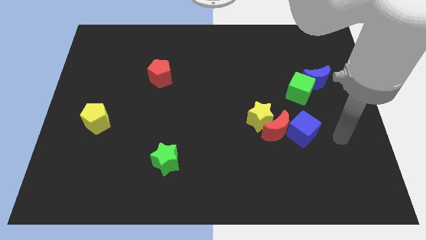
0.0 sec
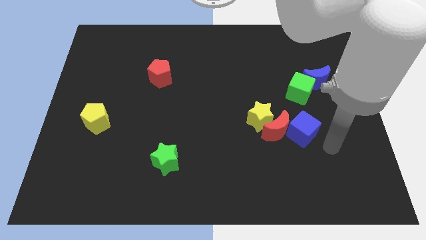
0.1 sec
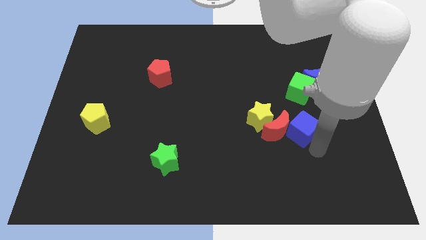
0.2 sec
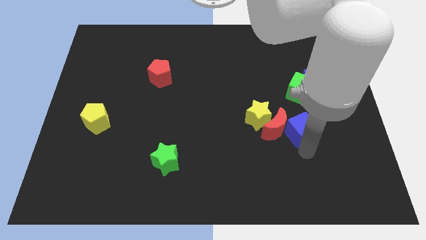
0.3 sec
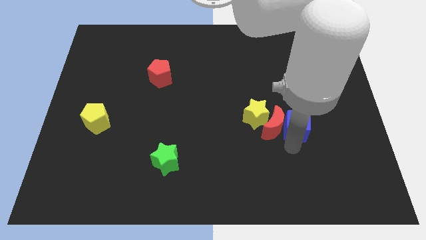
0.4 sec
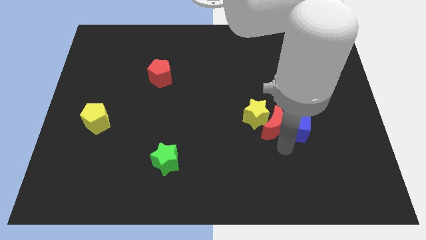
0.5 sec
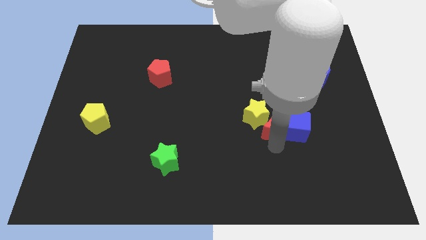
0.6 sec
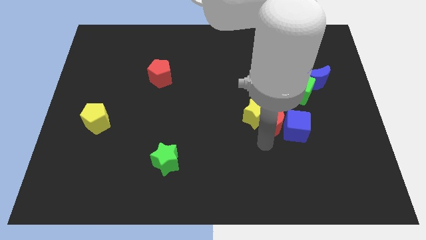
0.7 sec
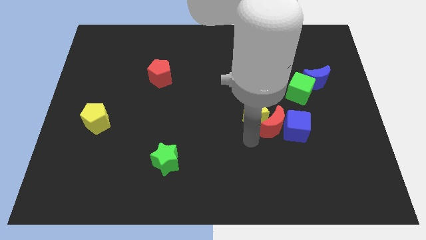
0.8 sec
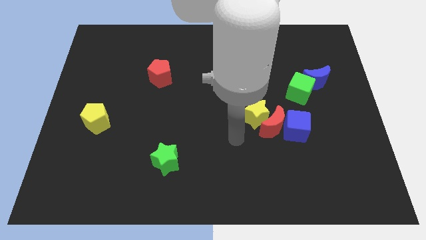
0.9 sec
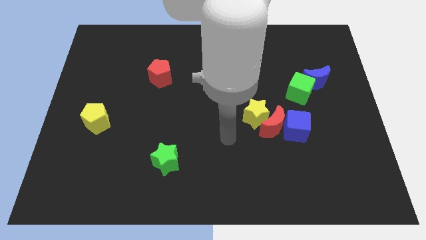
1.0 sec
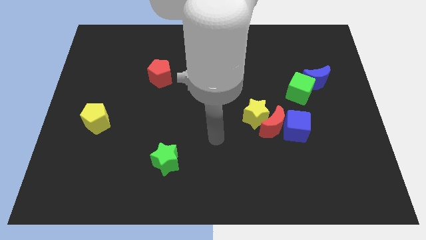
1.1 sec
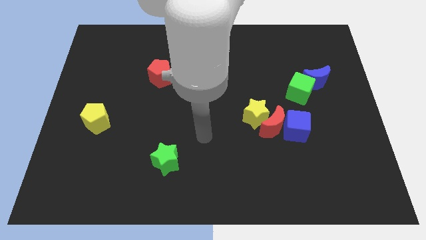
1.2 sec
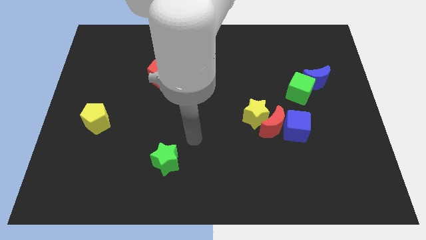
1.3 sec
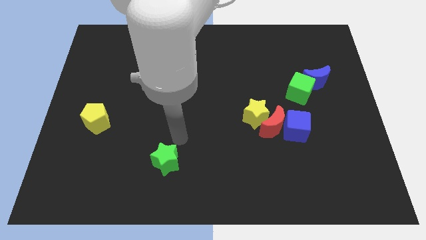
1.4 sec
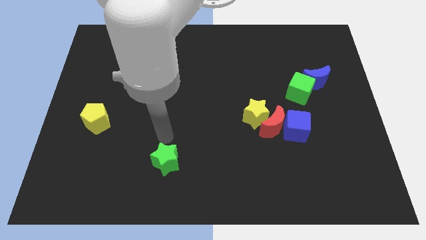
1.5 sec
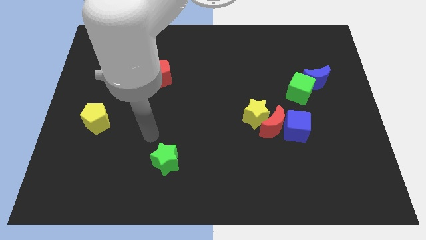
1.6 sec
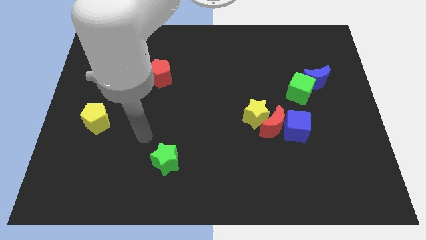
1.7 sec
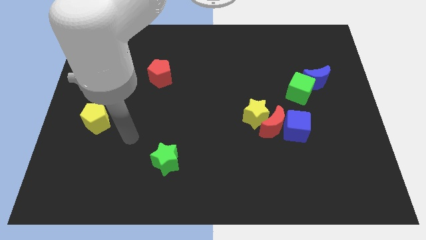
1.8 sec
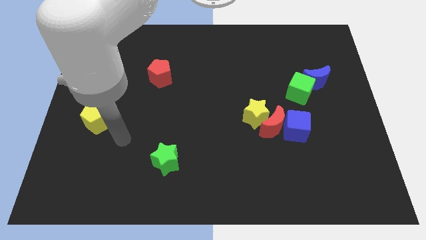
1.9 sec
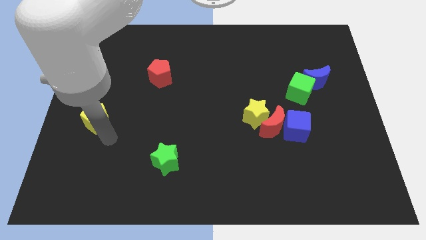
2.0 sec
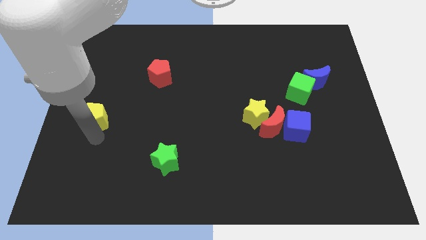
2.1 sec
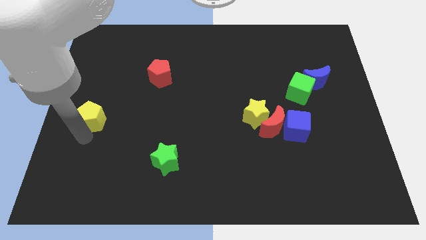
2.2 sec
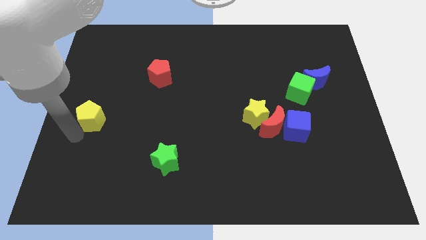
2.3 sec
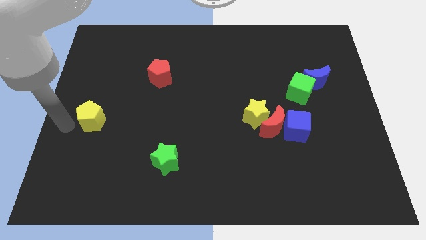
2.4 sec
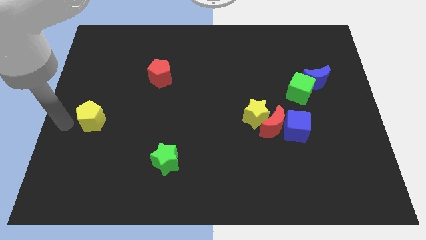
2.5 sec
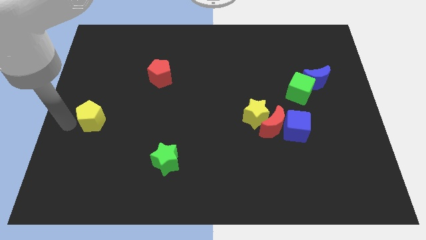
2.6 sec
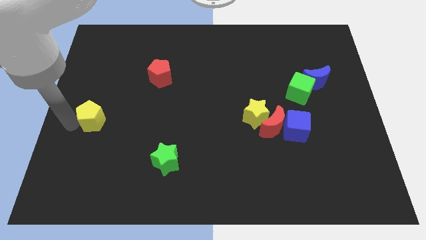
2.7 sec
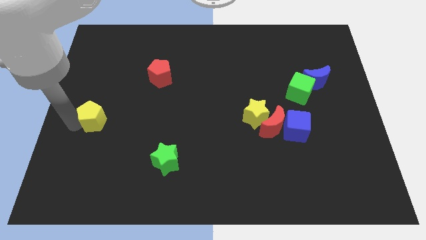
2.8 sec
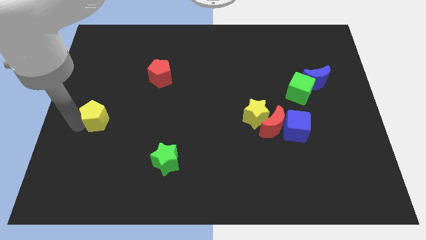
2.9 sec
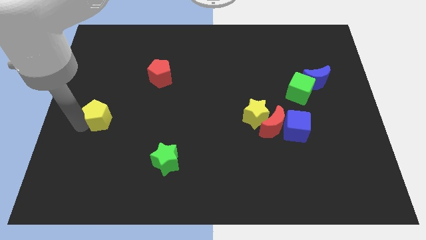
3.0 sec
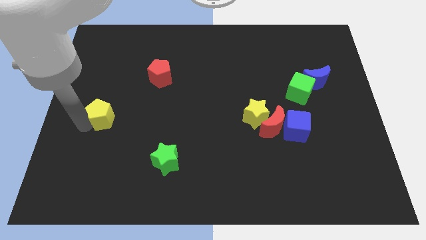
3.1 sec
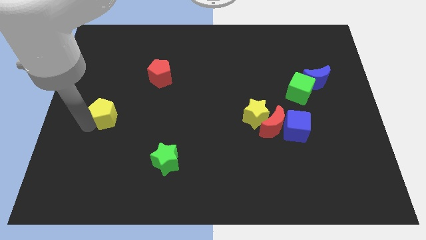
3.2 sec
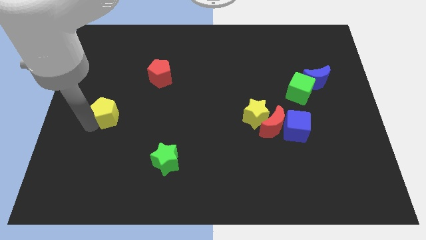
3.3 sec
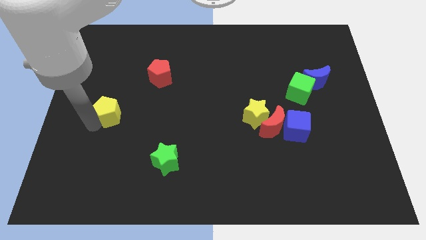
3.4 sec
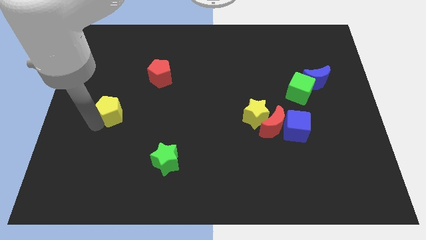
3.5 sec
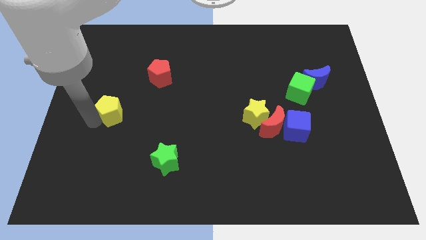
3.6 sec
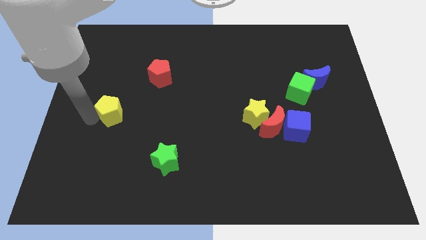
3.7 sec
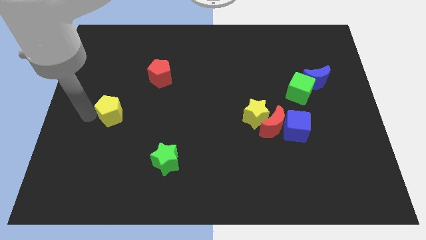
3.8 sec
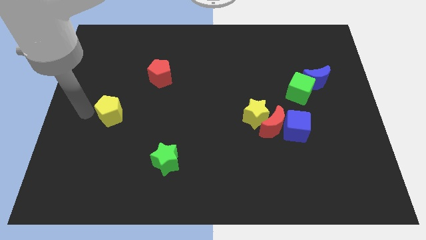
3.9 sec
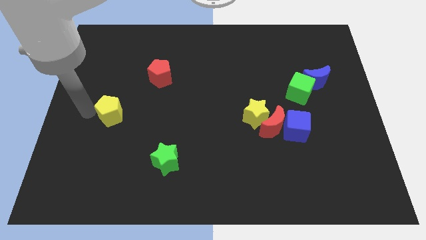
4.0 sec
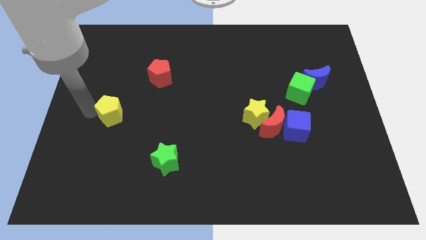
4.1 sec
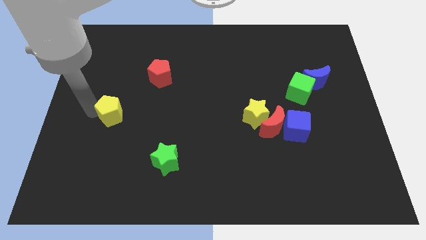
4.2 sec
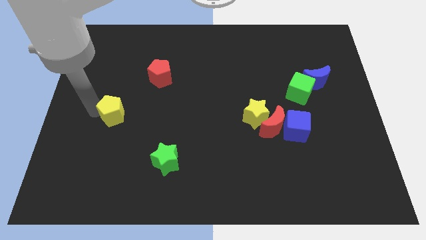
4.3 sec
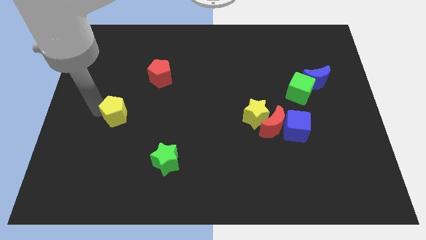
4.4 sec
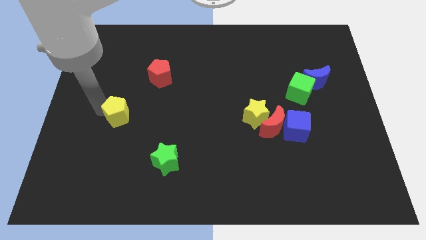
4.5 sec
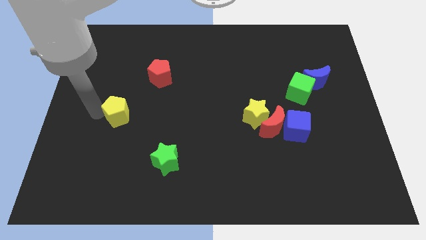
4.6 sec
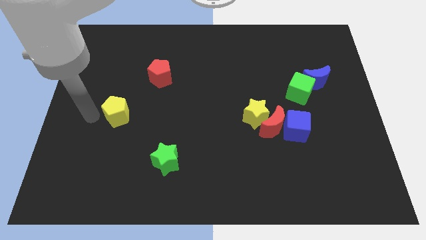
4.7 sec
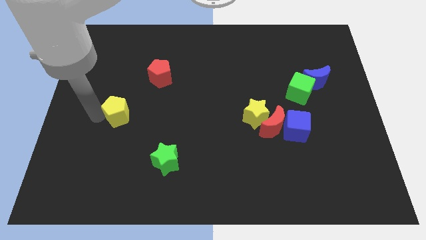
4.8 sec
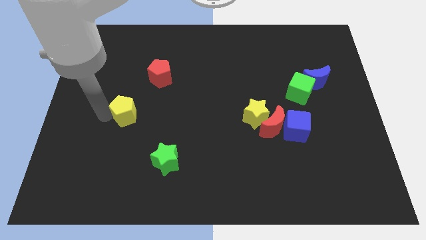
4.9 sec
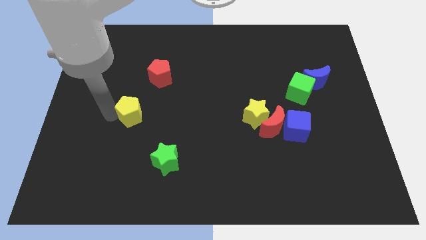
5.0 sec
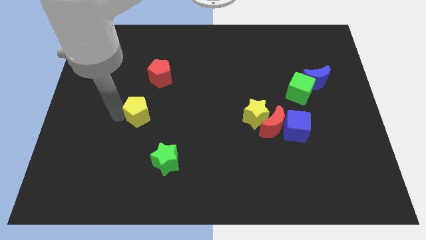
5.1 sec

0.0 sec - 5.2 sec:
slide the yellow pentagon below the red pentagon

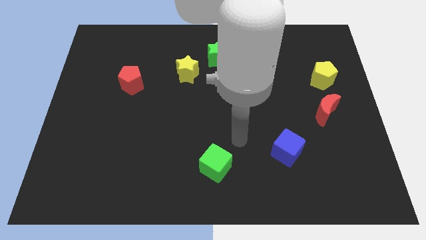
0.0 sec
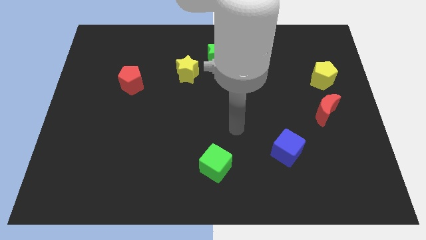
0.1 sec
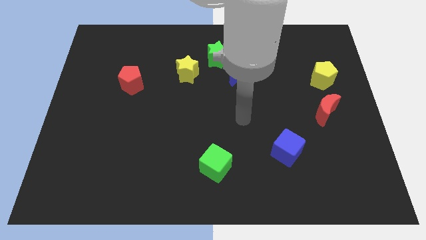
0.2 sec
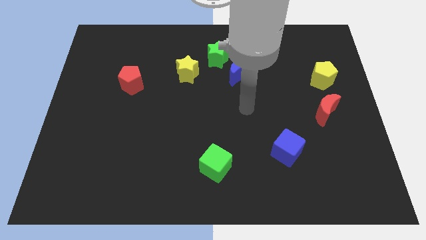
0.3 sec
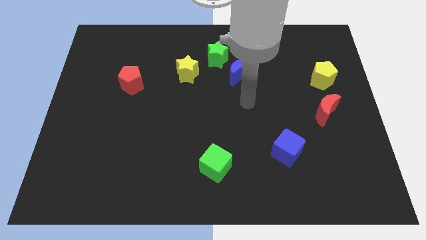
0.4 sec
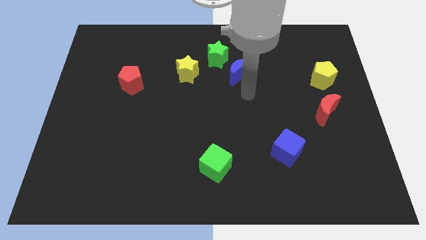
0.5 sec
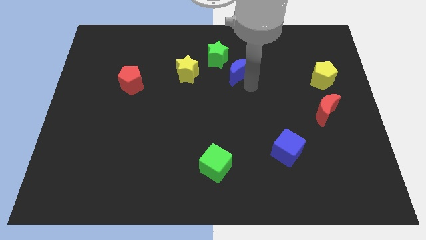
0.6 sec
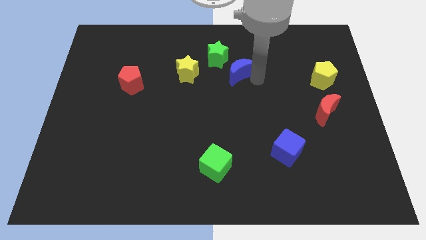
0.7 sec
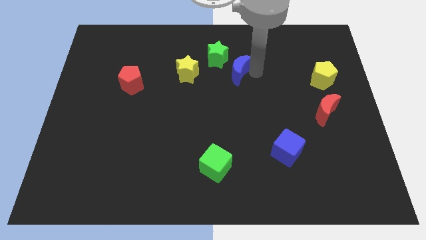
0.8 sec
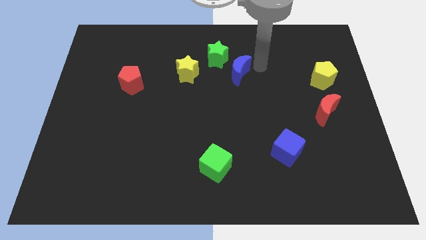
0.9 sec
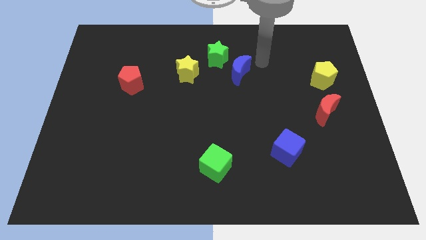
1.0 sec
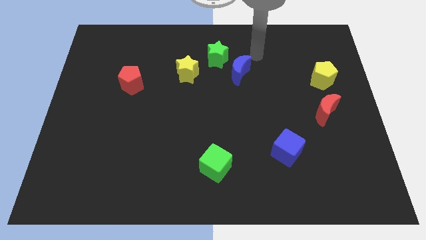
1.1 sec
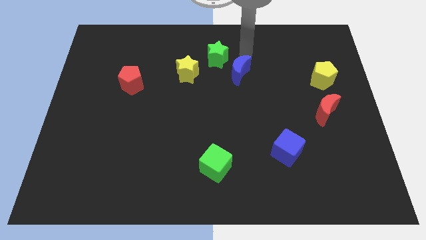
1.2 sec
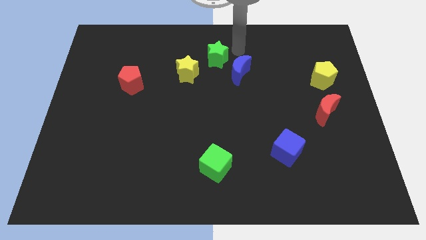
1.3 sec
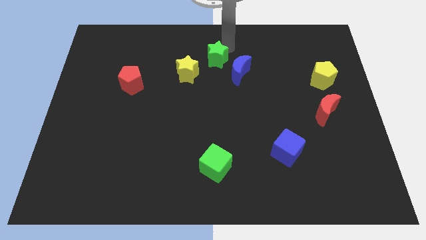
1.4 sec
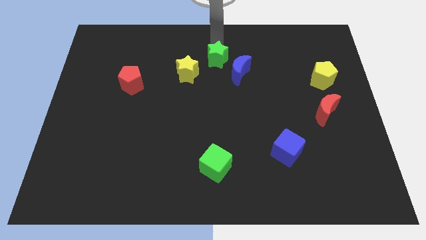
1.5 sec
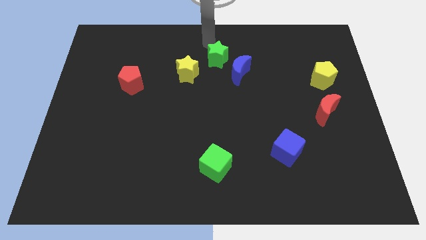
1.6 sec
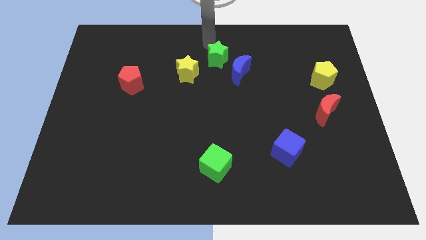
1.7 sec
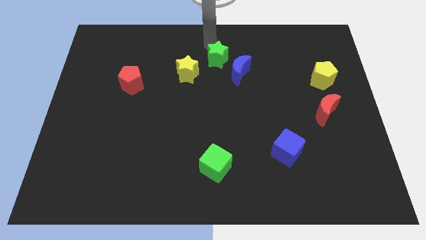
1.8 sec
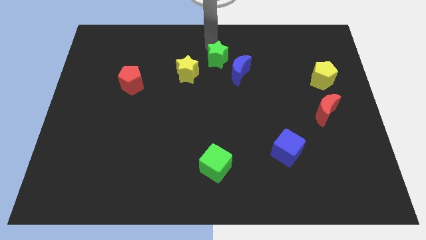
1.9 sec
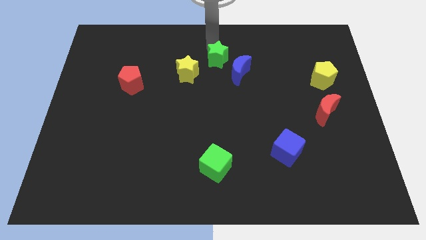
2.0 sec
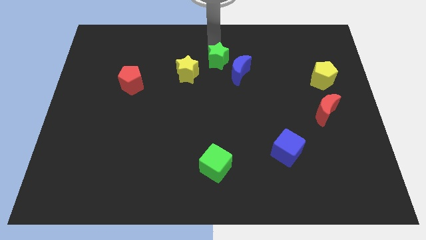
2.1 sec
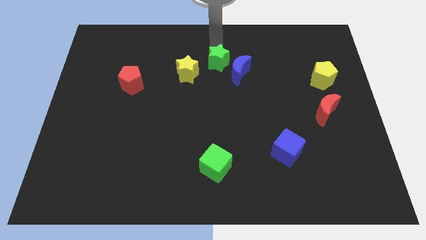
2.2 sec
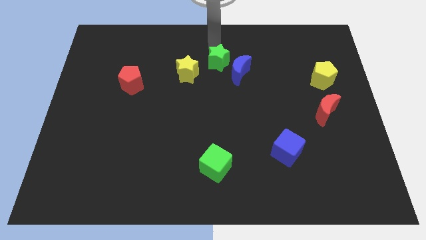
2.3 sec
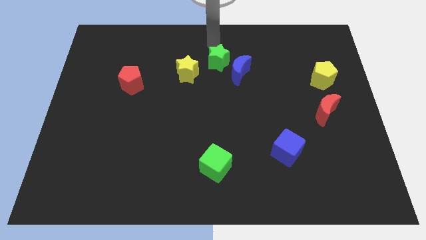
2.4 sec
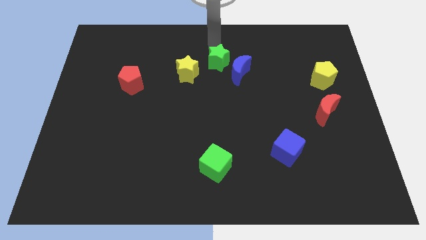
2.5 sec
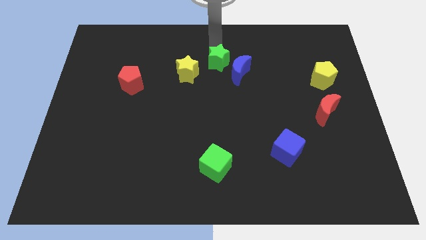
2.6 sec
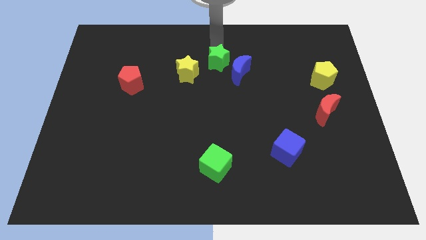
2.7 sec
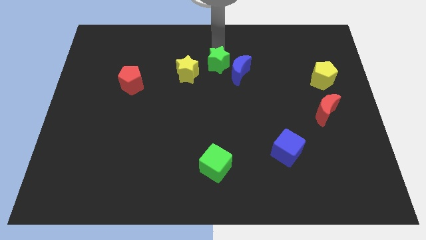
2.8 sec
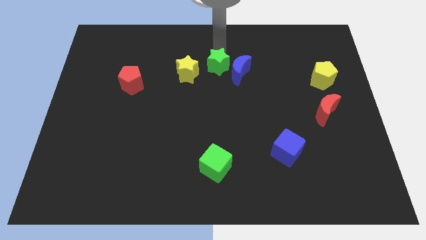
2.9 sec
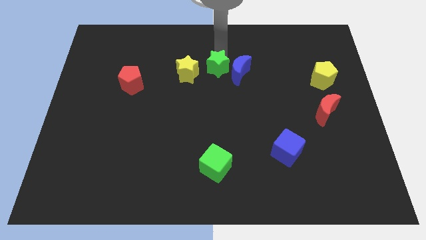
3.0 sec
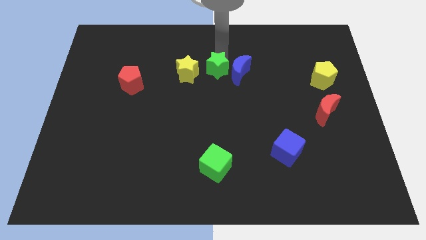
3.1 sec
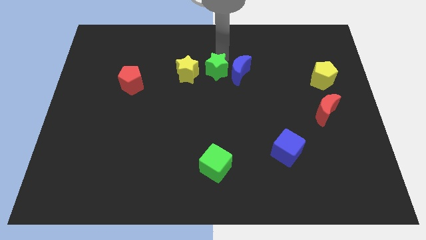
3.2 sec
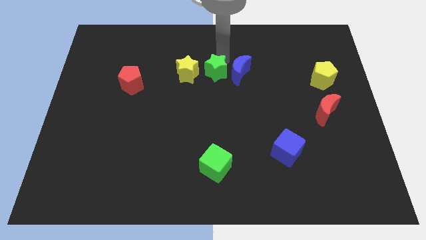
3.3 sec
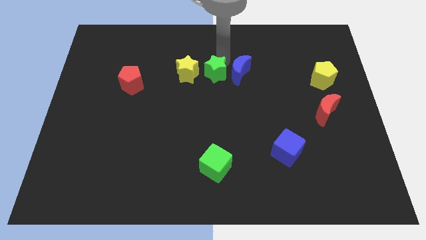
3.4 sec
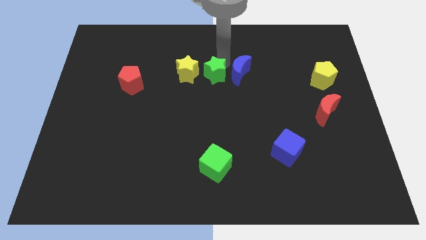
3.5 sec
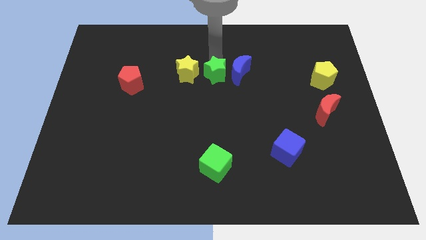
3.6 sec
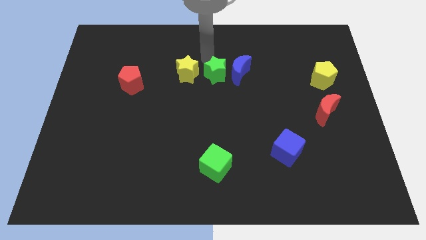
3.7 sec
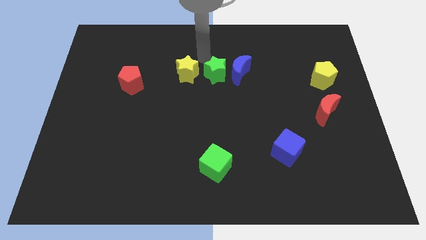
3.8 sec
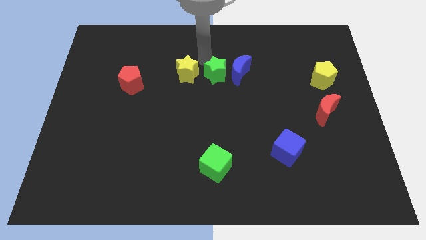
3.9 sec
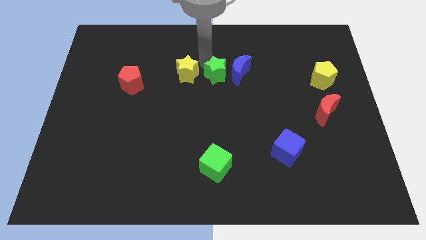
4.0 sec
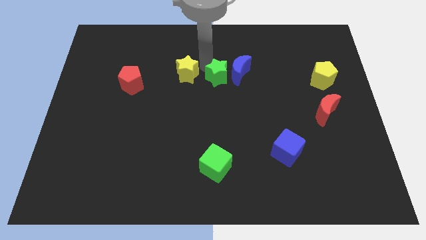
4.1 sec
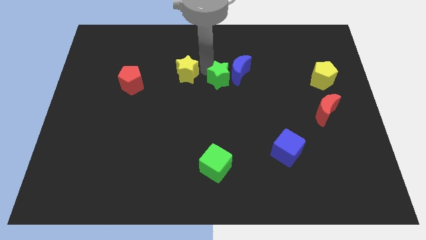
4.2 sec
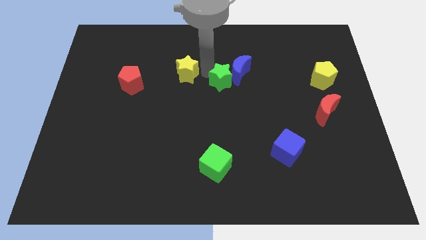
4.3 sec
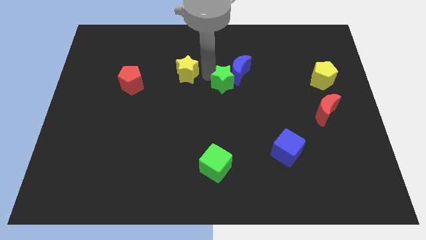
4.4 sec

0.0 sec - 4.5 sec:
slide the green star below the blue moon
